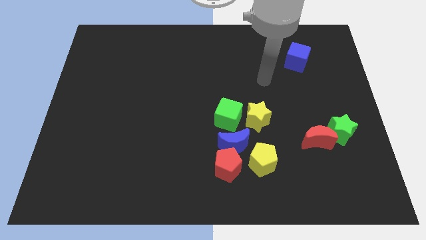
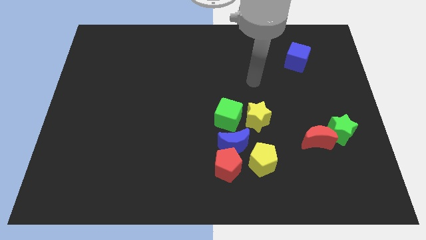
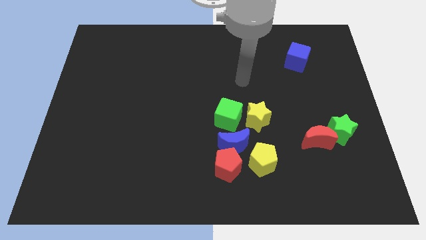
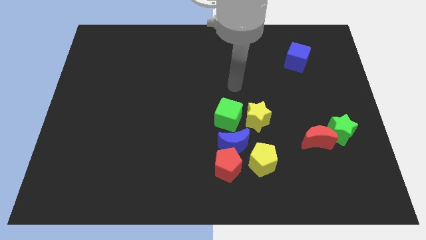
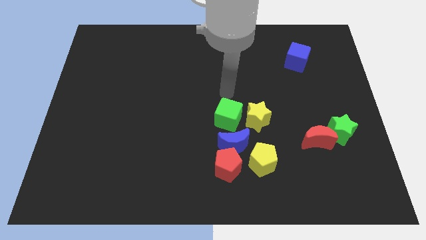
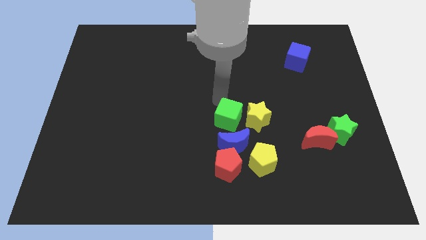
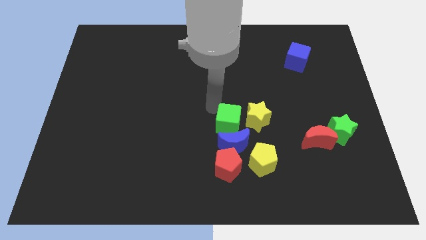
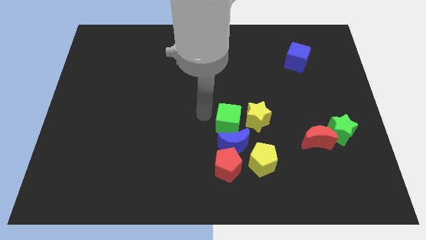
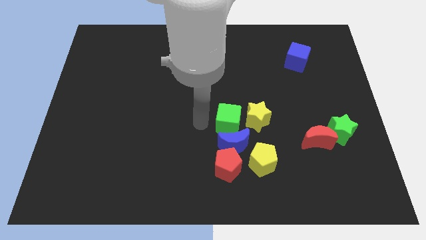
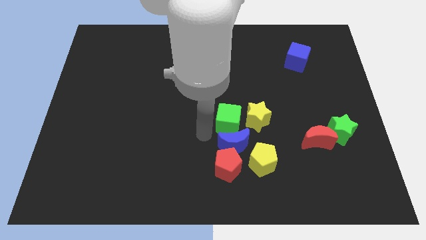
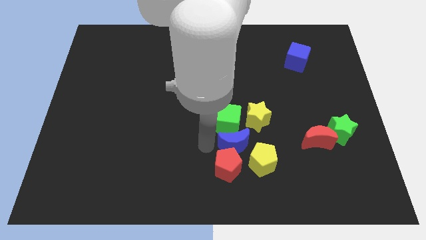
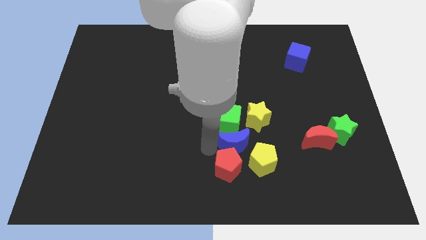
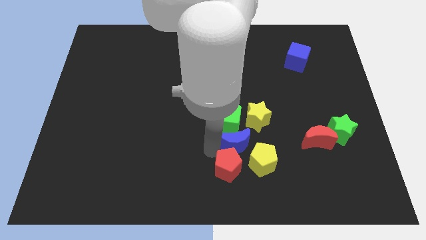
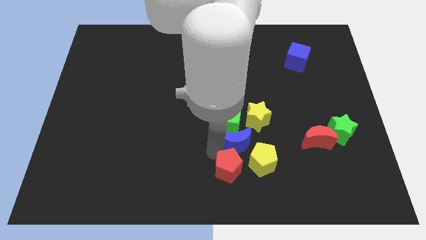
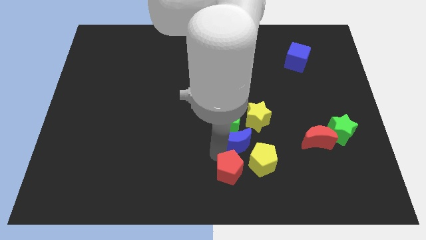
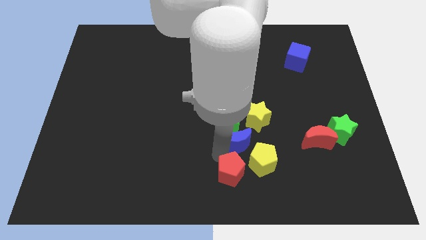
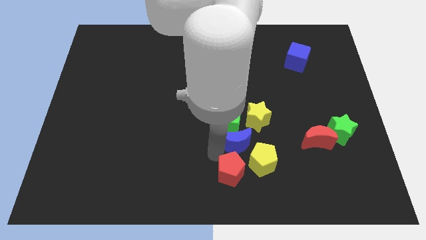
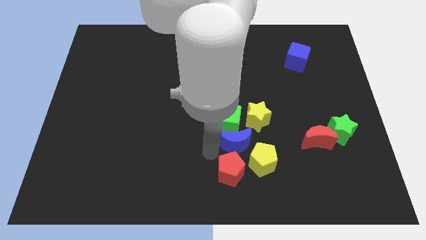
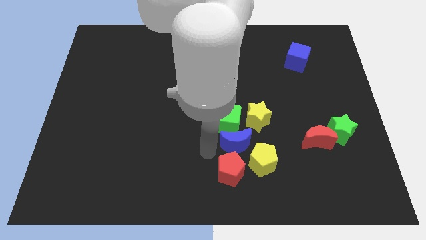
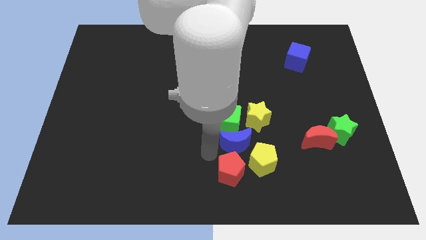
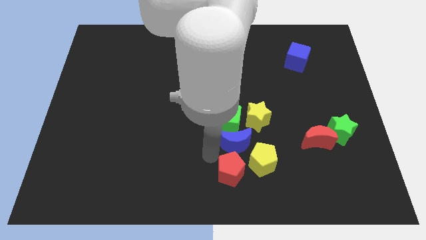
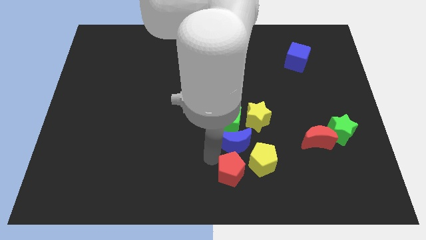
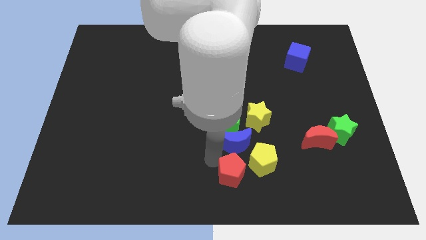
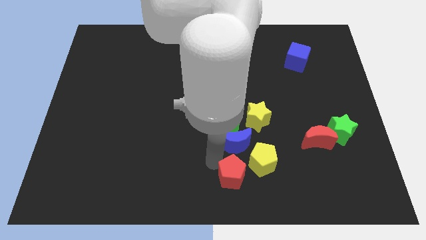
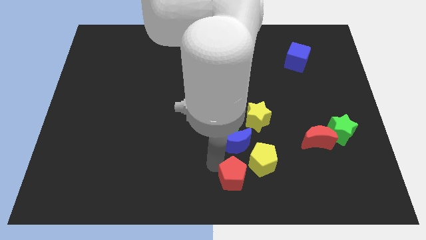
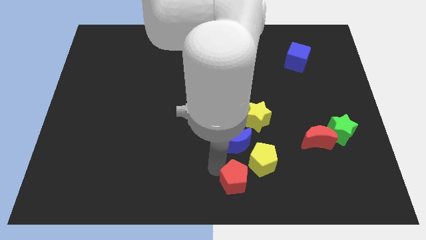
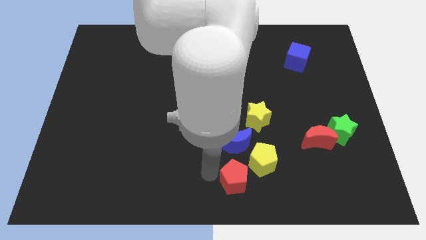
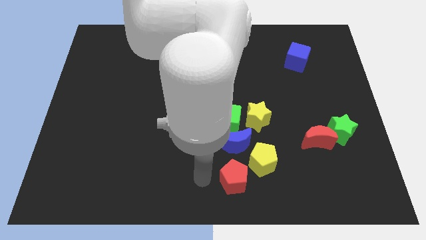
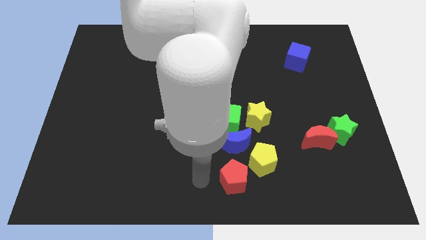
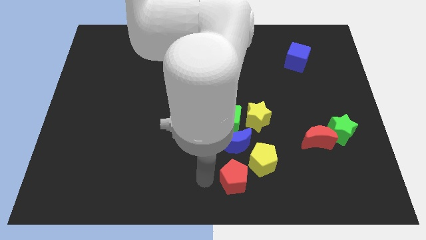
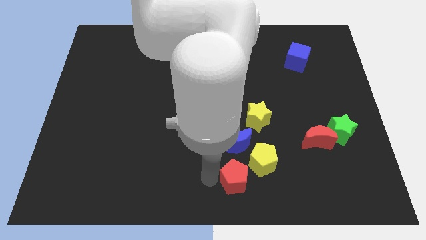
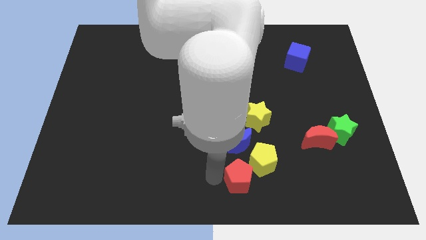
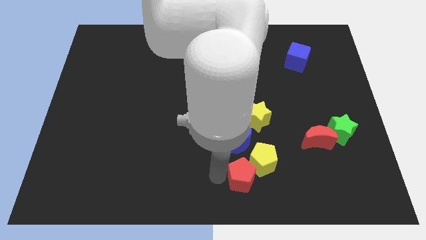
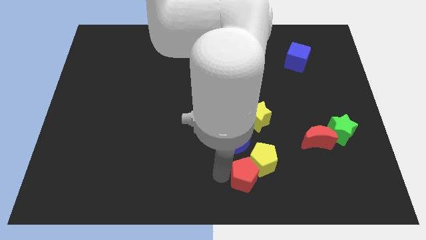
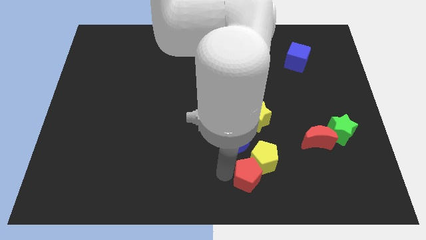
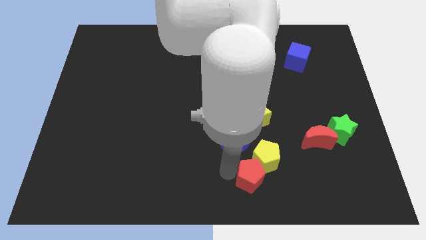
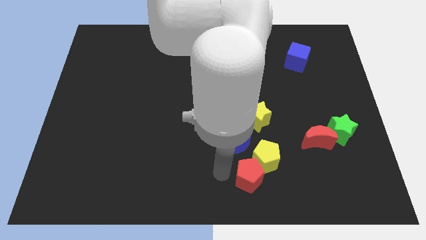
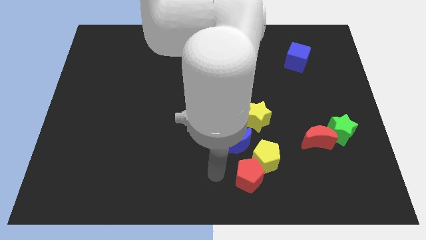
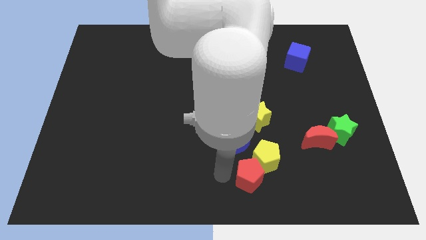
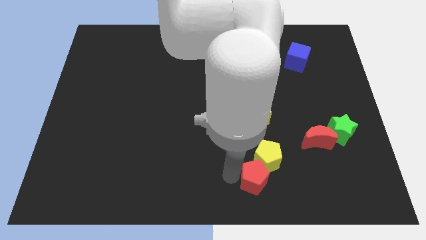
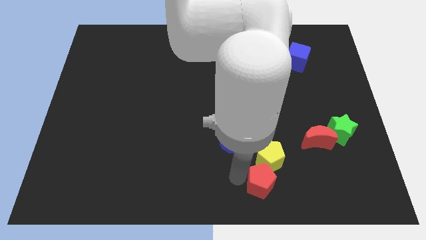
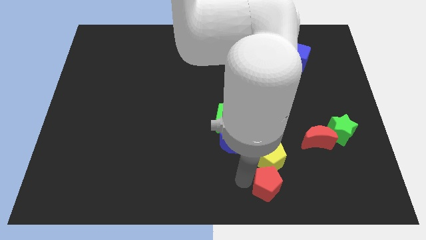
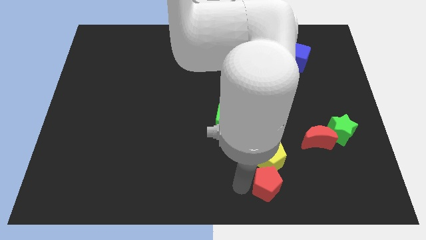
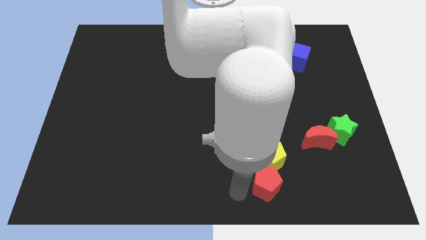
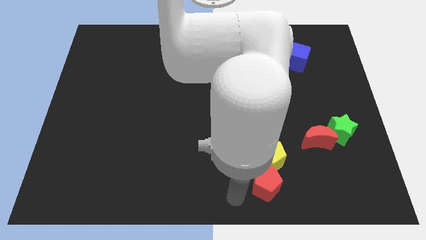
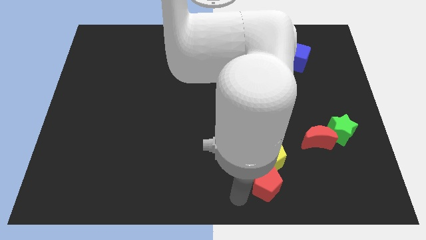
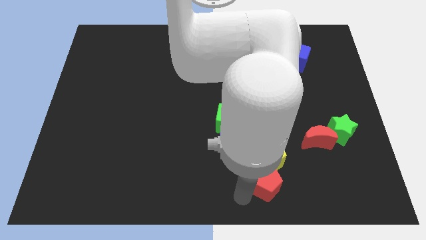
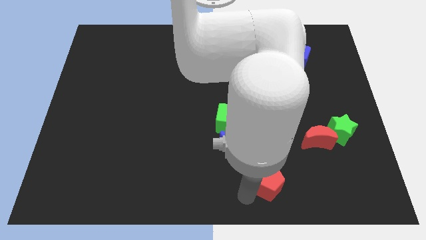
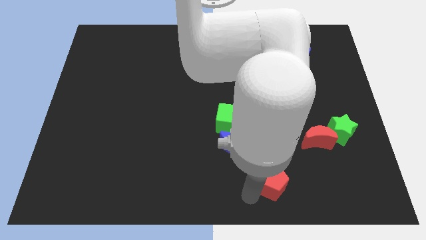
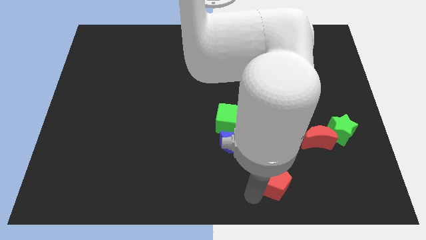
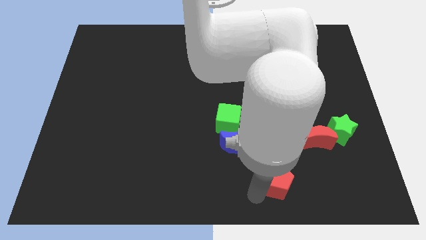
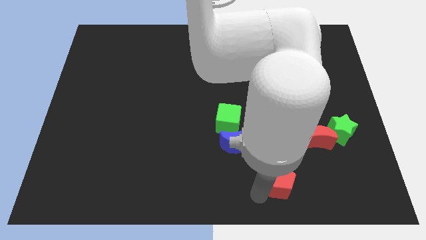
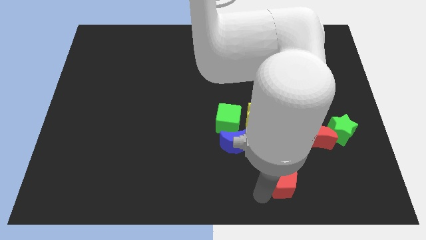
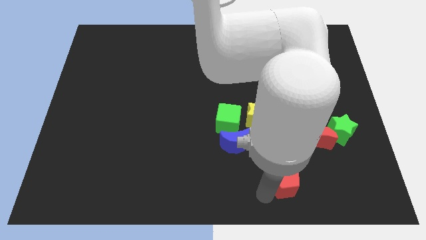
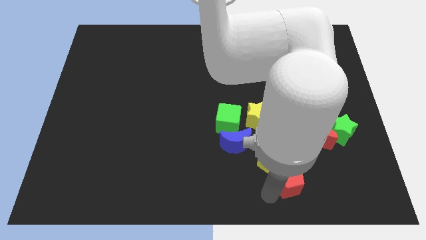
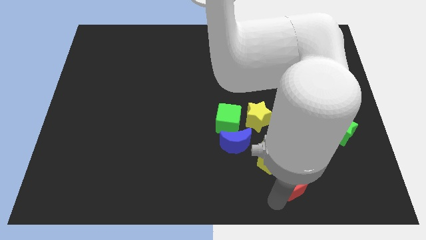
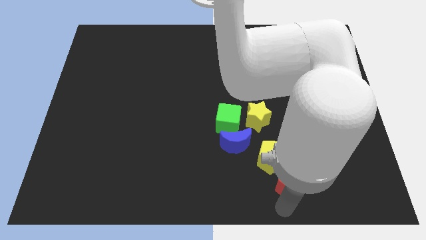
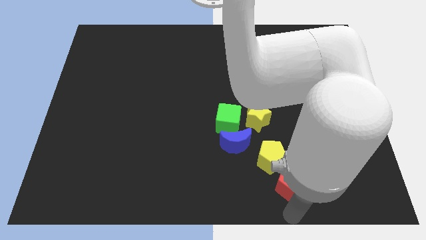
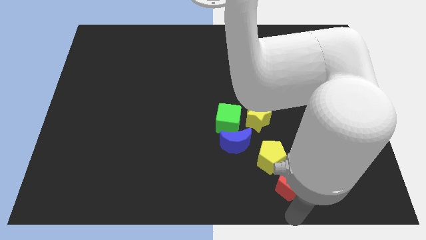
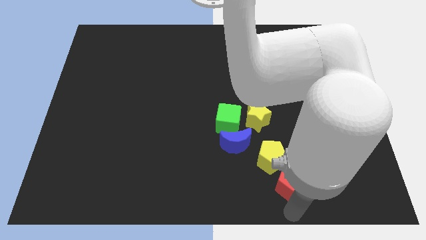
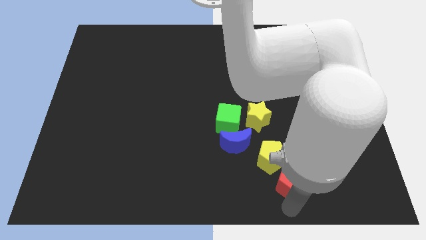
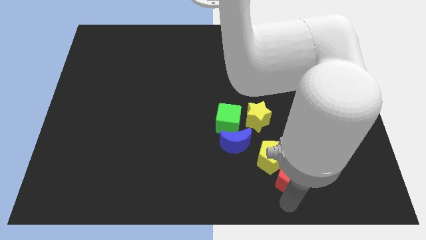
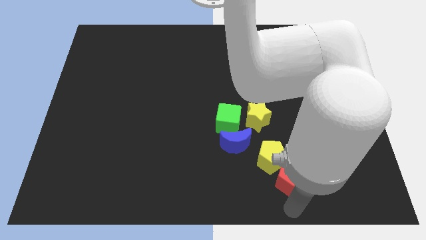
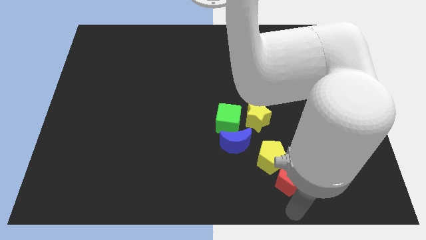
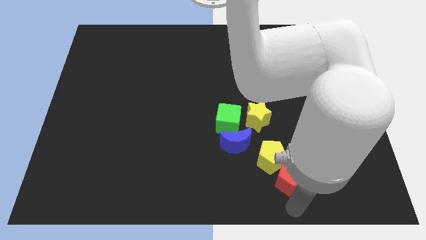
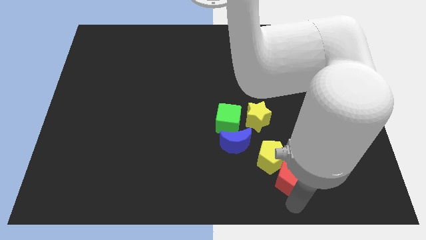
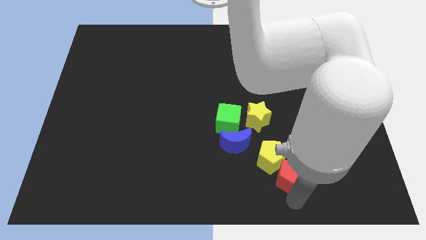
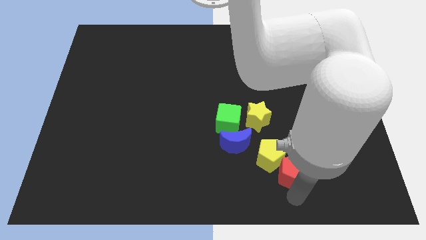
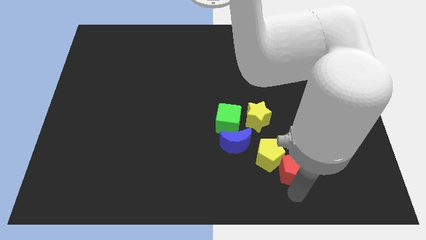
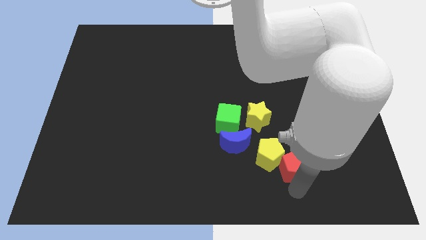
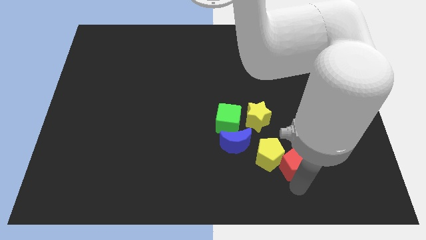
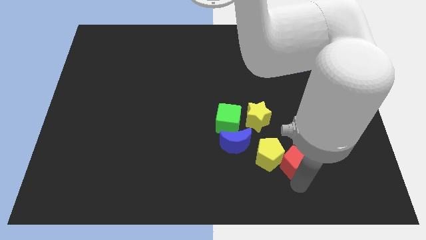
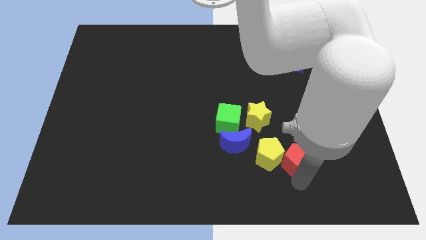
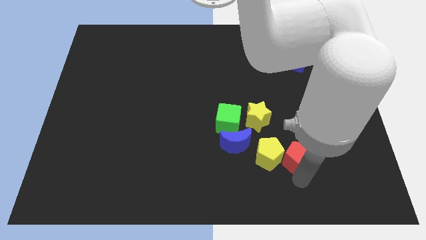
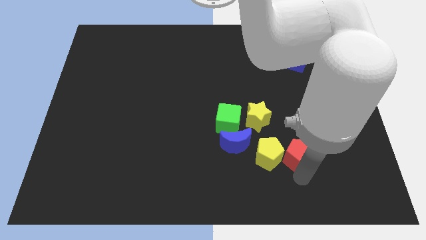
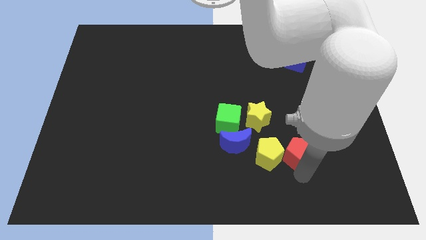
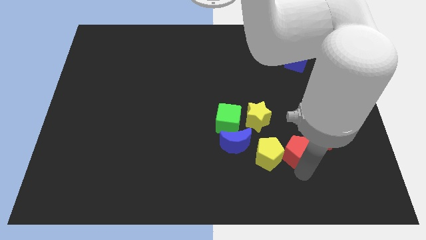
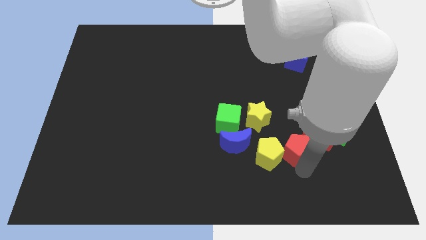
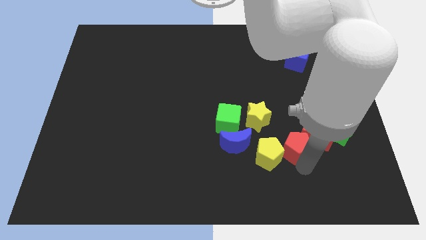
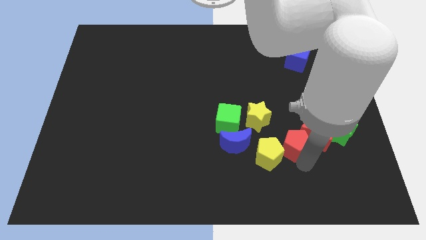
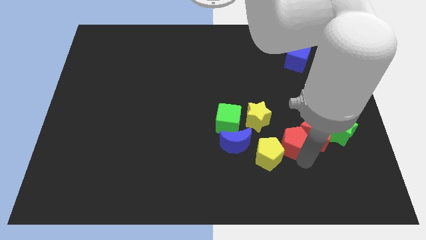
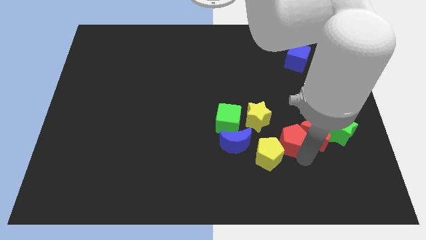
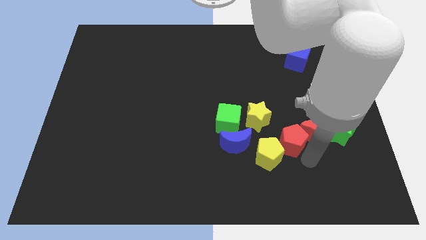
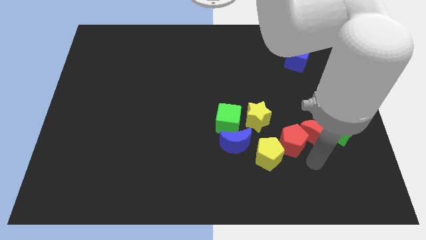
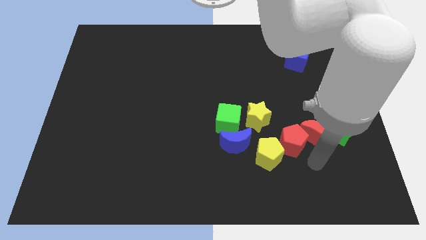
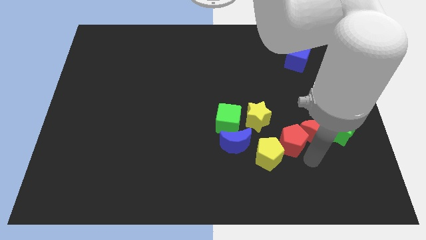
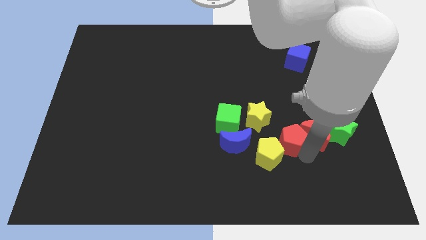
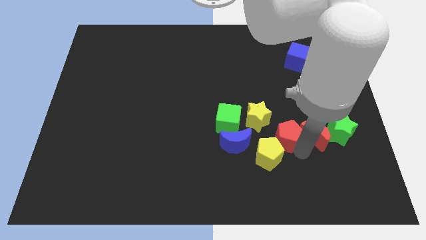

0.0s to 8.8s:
put the red pentagon to the right side of the green cube
